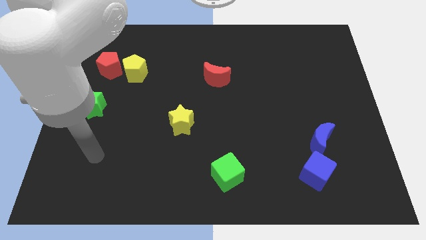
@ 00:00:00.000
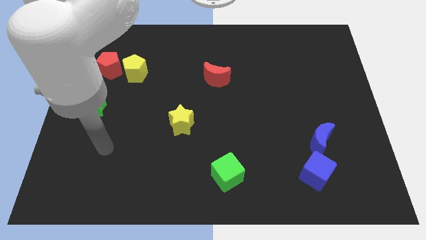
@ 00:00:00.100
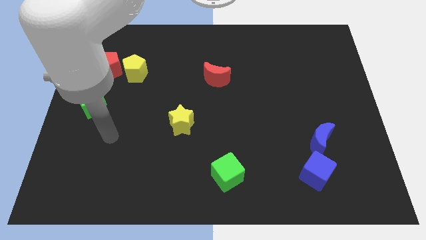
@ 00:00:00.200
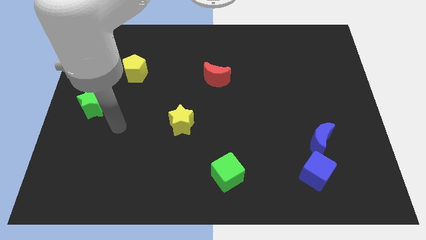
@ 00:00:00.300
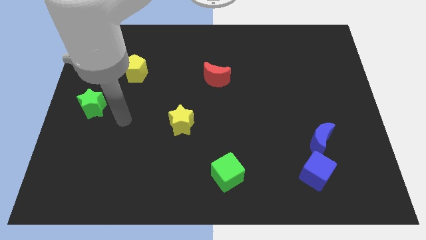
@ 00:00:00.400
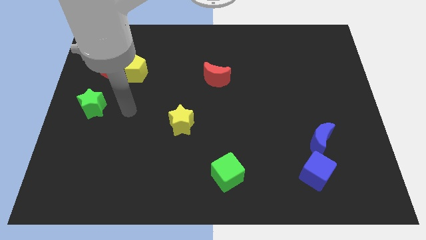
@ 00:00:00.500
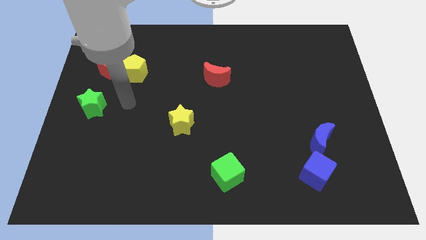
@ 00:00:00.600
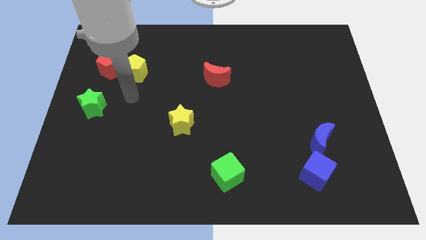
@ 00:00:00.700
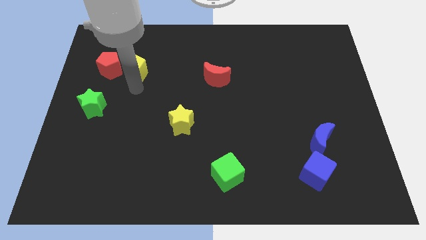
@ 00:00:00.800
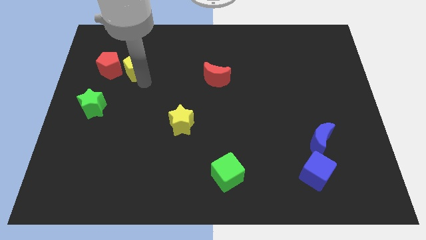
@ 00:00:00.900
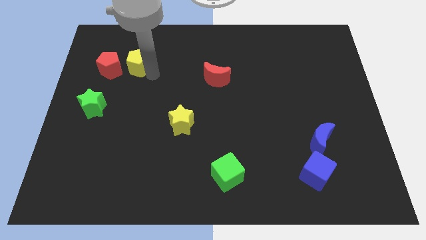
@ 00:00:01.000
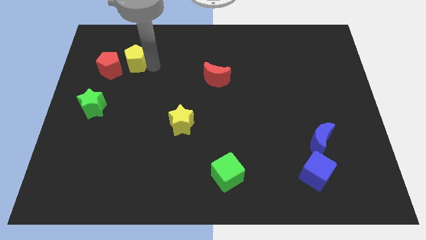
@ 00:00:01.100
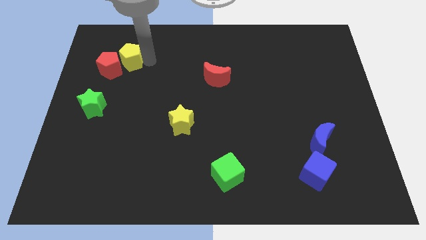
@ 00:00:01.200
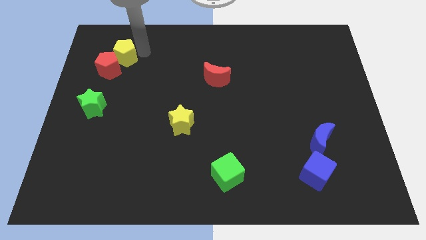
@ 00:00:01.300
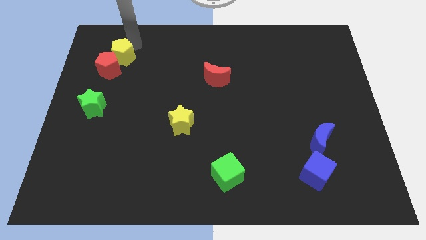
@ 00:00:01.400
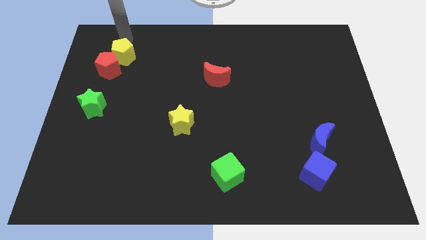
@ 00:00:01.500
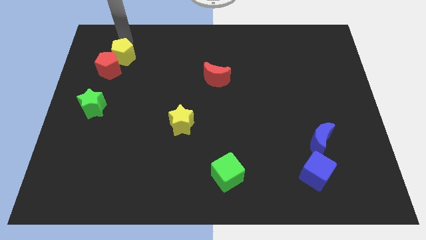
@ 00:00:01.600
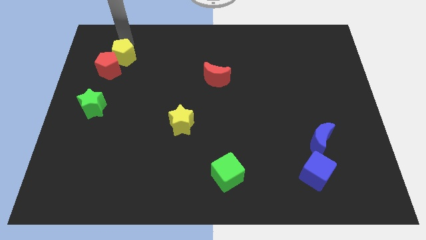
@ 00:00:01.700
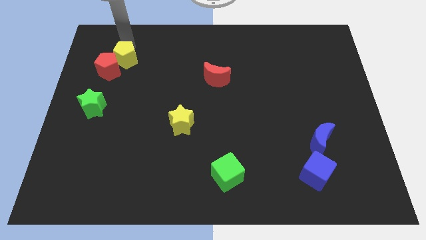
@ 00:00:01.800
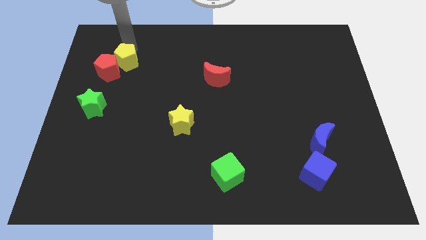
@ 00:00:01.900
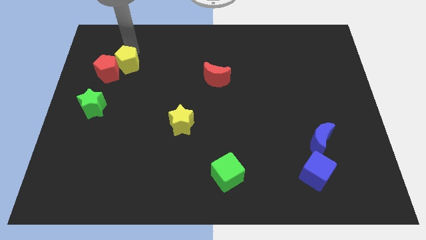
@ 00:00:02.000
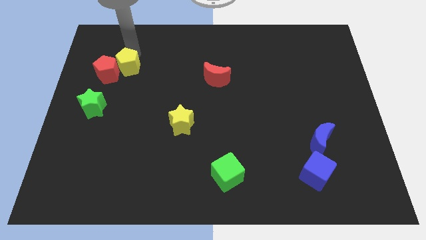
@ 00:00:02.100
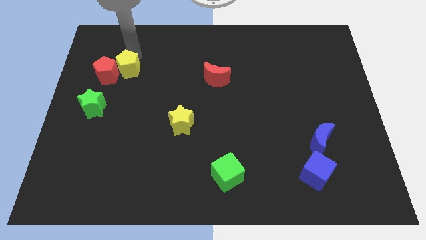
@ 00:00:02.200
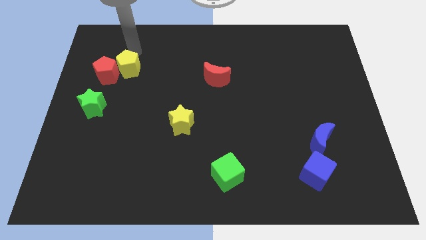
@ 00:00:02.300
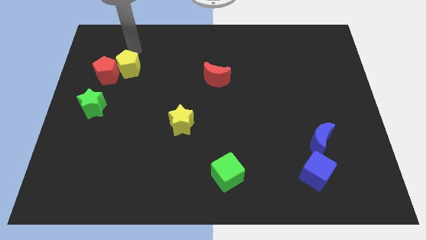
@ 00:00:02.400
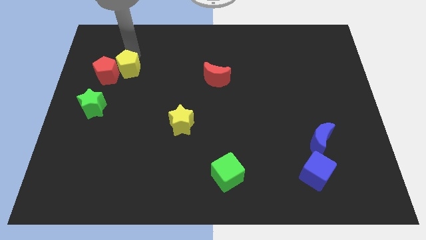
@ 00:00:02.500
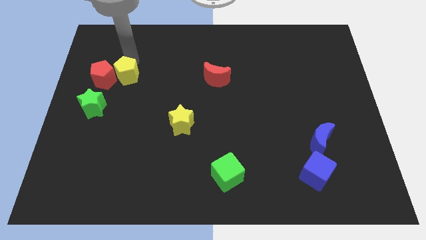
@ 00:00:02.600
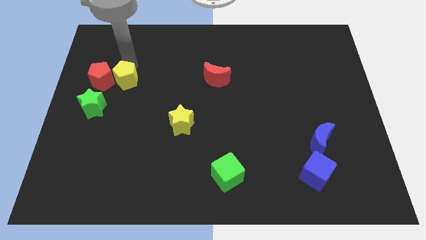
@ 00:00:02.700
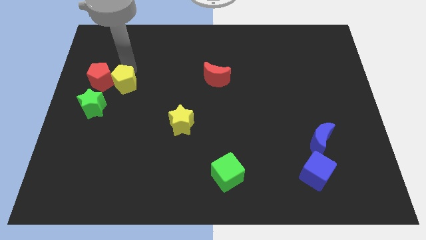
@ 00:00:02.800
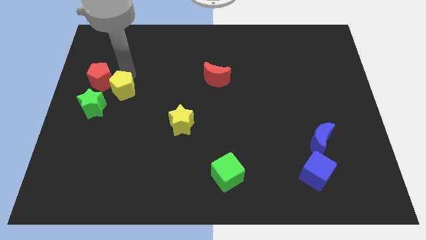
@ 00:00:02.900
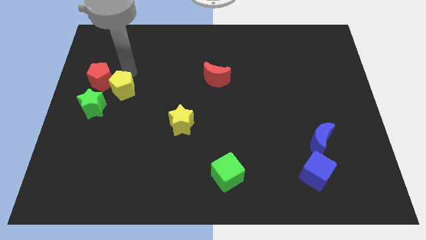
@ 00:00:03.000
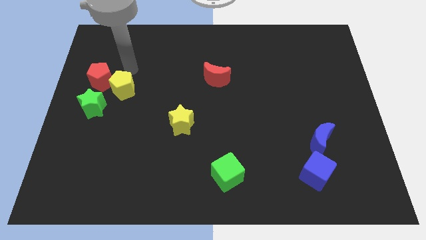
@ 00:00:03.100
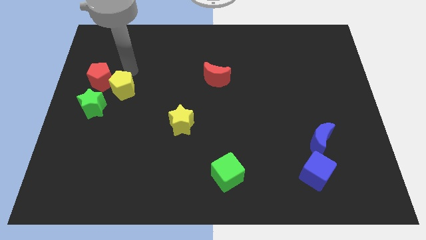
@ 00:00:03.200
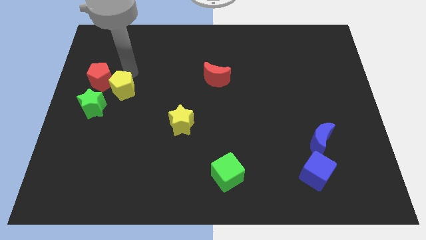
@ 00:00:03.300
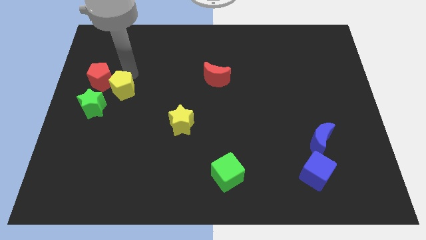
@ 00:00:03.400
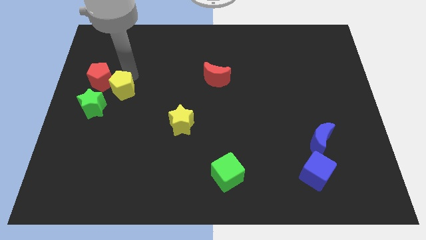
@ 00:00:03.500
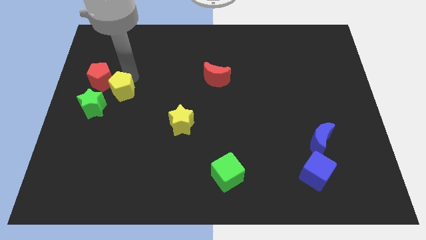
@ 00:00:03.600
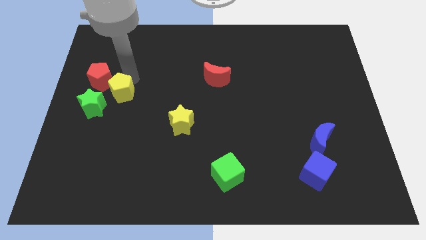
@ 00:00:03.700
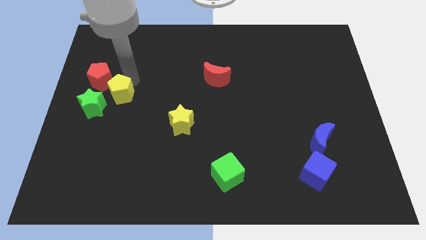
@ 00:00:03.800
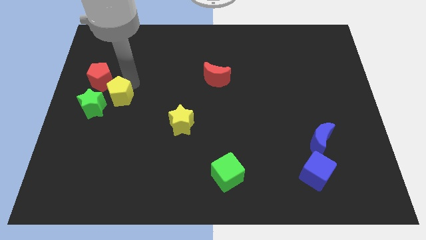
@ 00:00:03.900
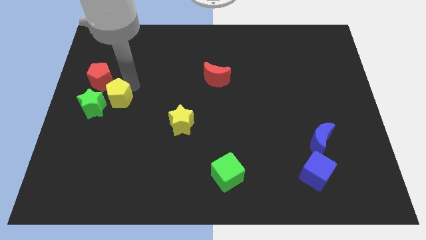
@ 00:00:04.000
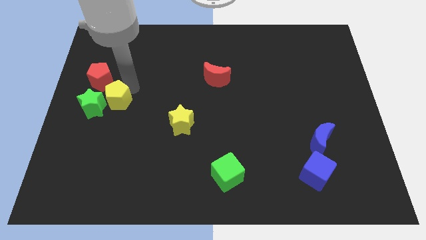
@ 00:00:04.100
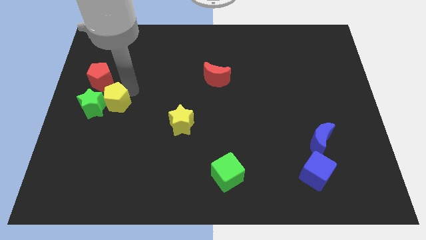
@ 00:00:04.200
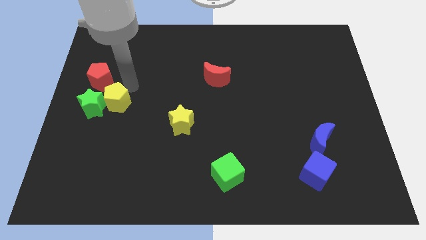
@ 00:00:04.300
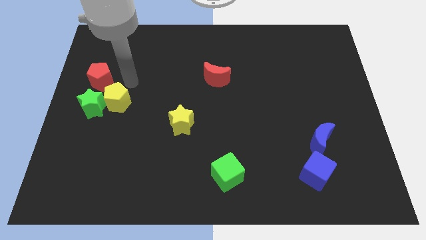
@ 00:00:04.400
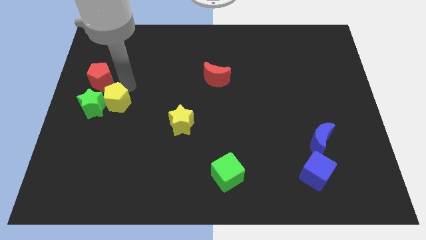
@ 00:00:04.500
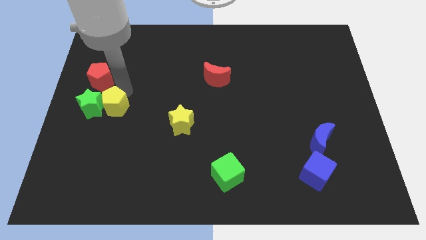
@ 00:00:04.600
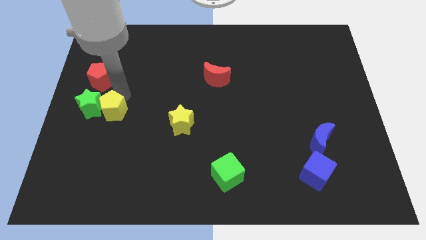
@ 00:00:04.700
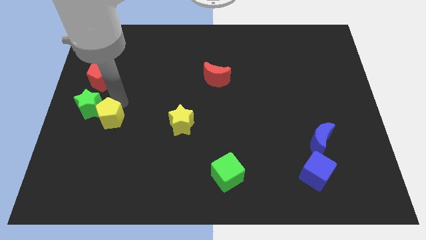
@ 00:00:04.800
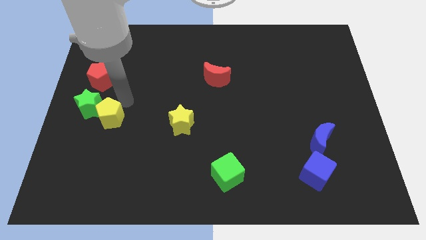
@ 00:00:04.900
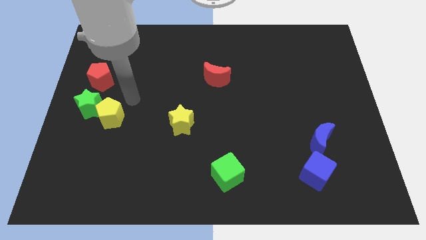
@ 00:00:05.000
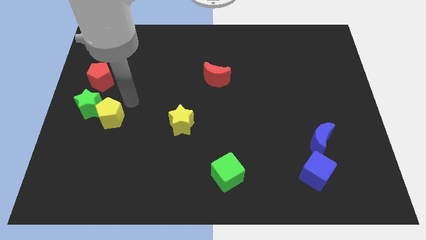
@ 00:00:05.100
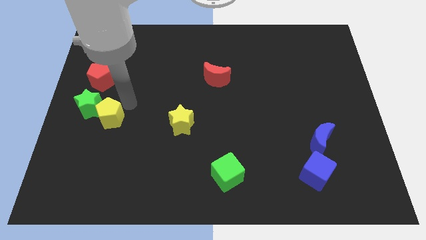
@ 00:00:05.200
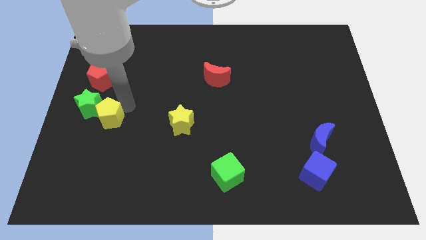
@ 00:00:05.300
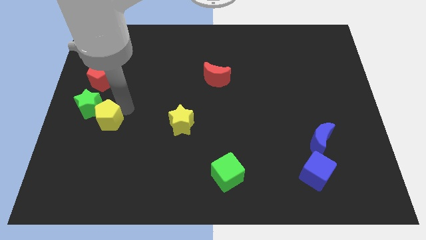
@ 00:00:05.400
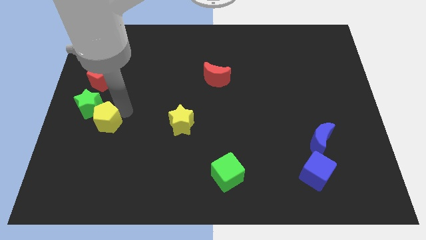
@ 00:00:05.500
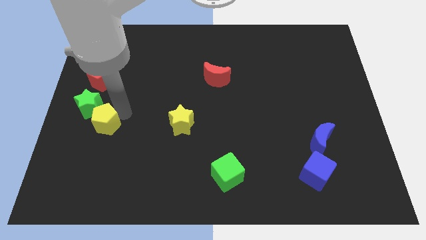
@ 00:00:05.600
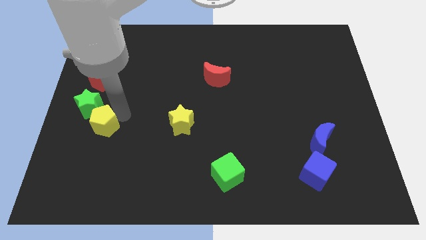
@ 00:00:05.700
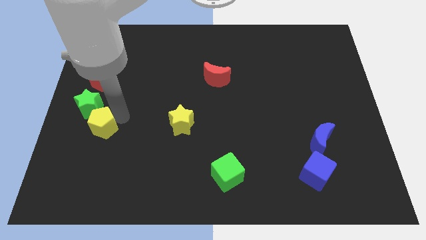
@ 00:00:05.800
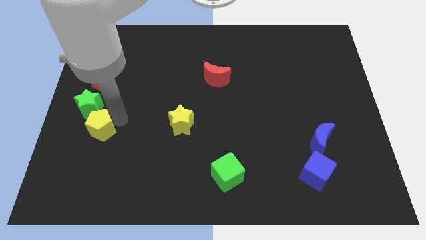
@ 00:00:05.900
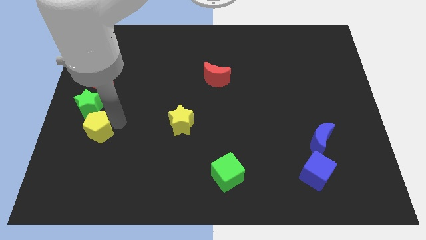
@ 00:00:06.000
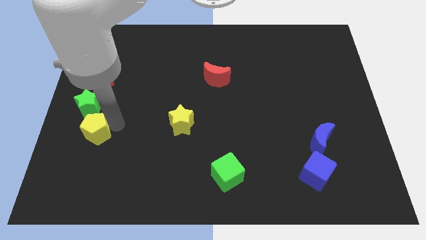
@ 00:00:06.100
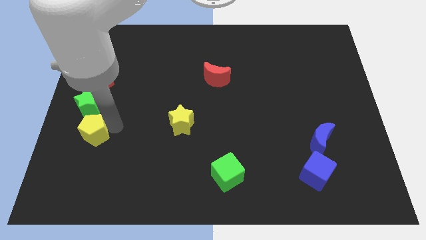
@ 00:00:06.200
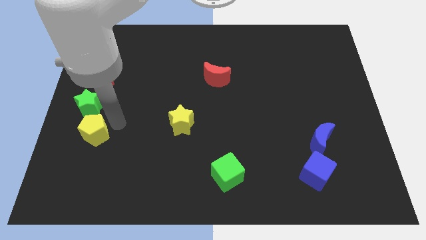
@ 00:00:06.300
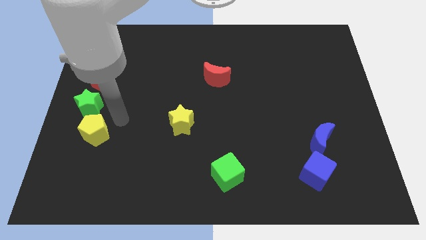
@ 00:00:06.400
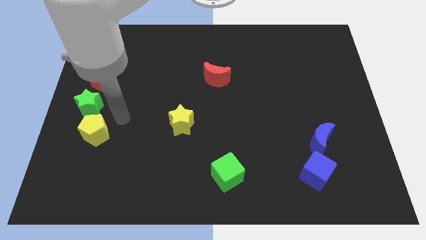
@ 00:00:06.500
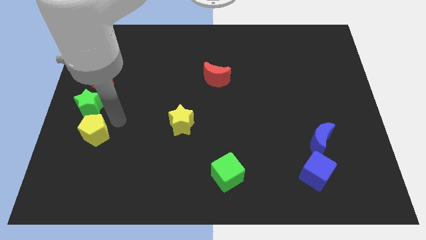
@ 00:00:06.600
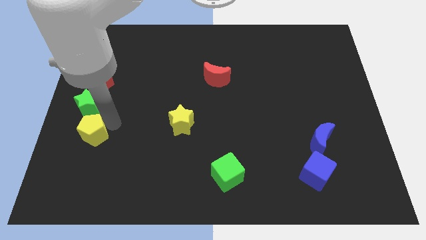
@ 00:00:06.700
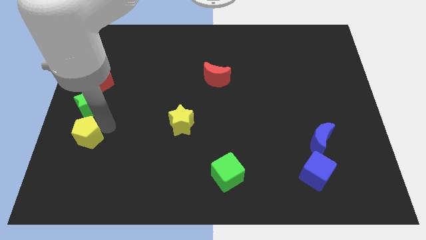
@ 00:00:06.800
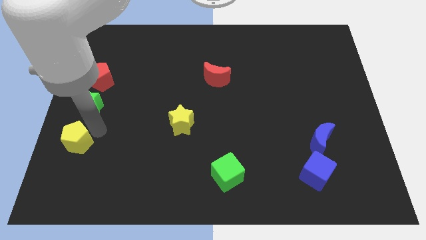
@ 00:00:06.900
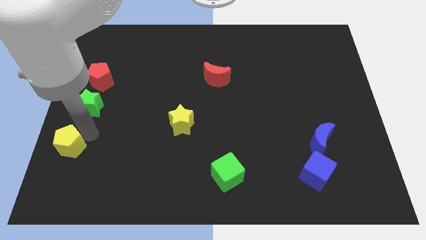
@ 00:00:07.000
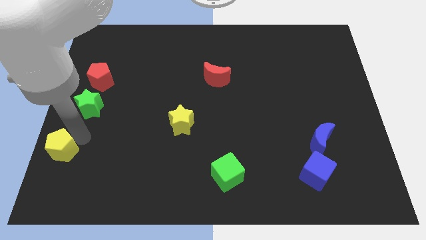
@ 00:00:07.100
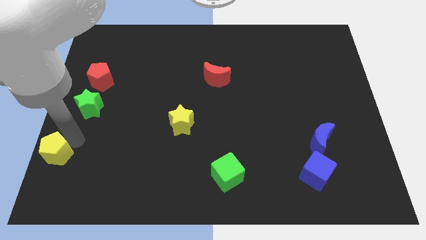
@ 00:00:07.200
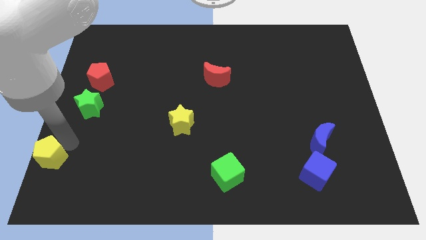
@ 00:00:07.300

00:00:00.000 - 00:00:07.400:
put the yellow pentagon to the bottom left
